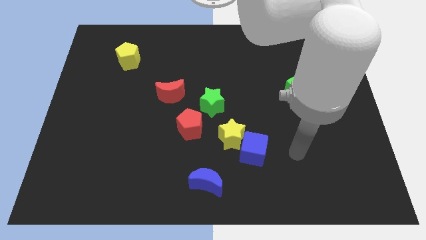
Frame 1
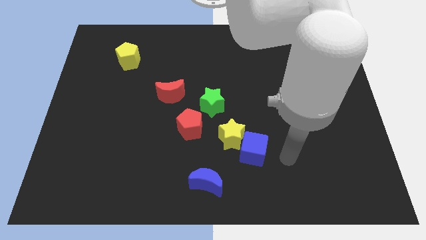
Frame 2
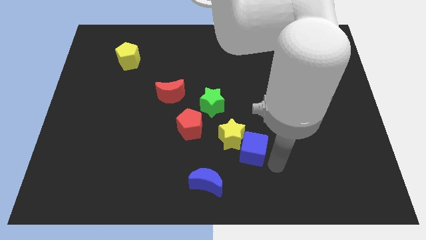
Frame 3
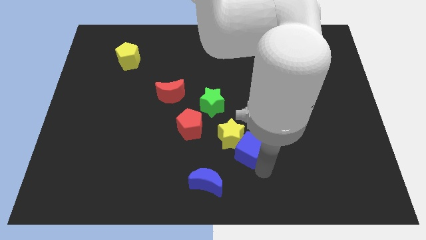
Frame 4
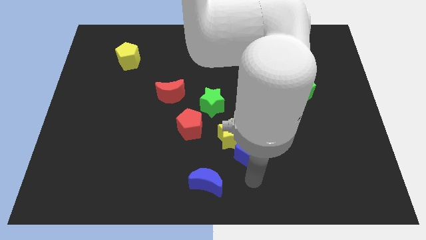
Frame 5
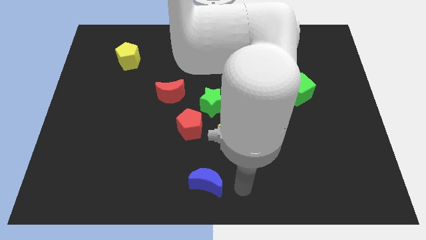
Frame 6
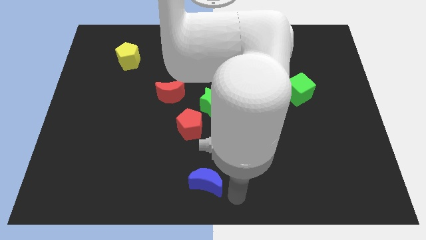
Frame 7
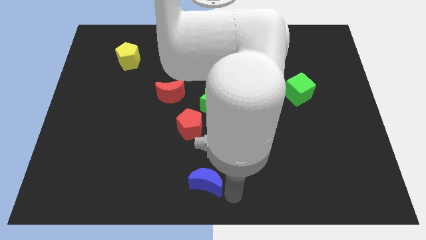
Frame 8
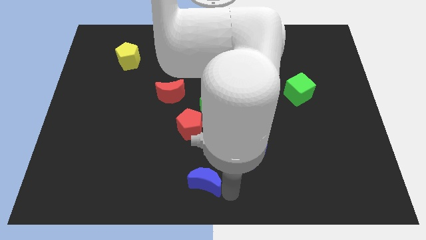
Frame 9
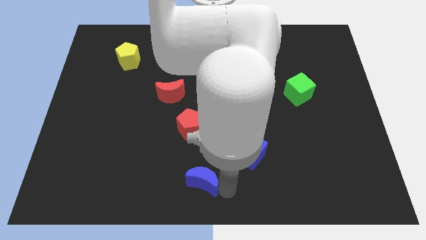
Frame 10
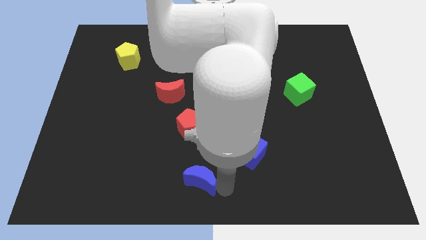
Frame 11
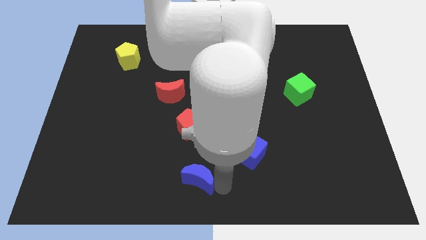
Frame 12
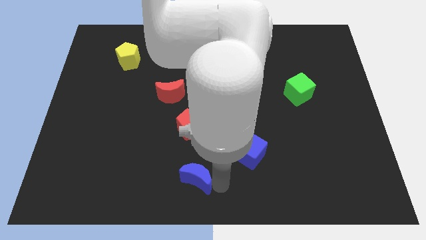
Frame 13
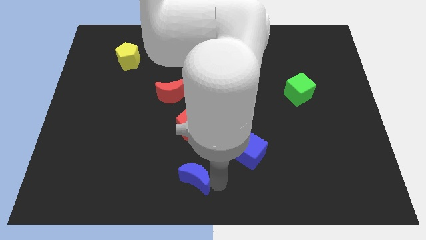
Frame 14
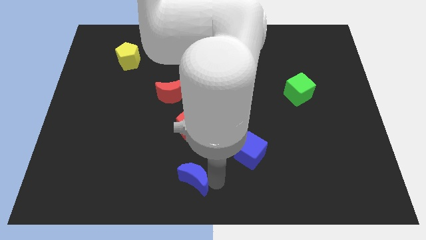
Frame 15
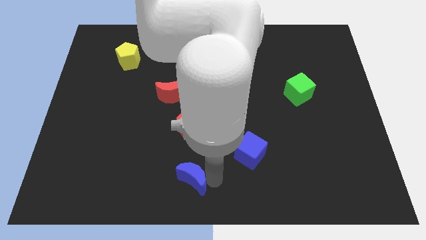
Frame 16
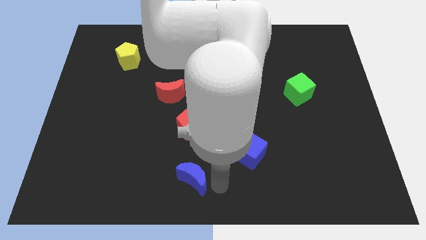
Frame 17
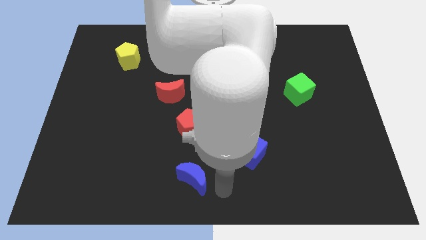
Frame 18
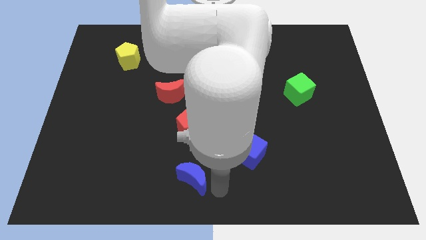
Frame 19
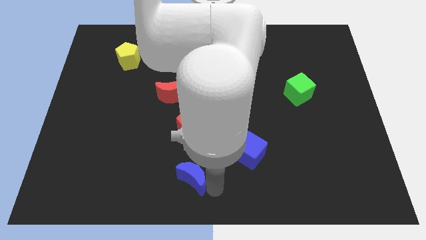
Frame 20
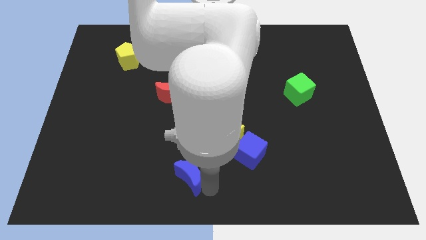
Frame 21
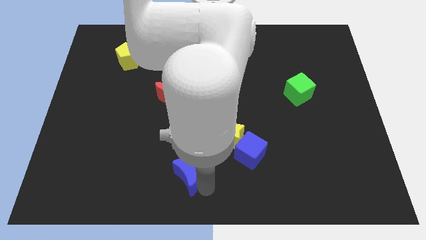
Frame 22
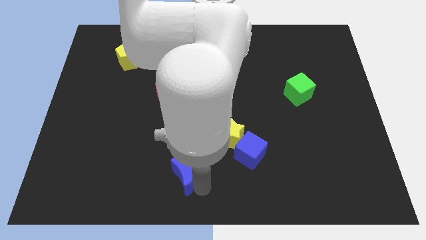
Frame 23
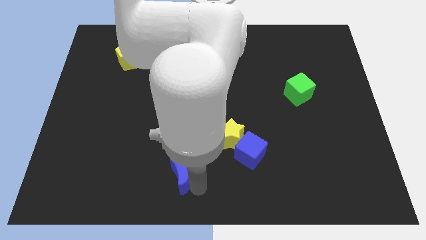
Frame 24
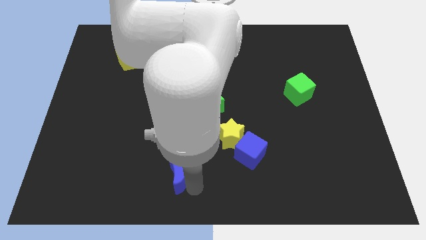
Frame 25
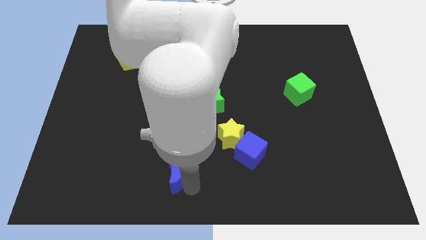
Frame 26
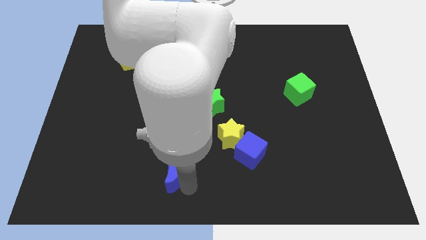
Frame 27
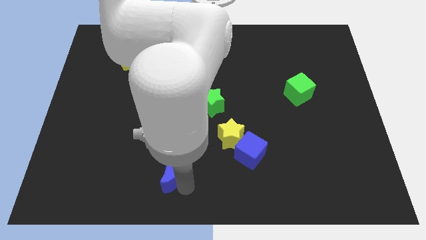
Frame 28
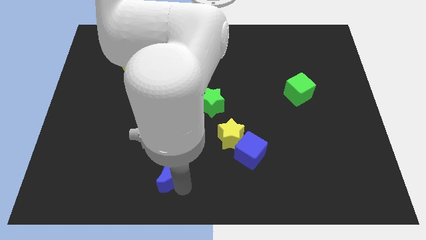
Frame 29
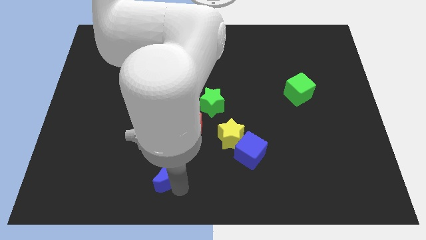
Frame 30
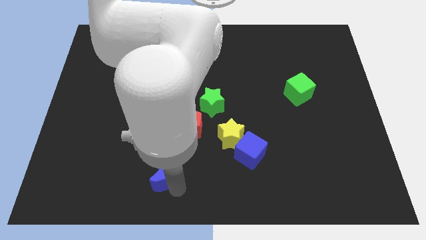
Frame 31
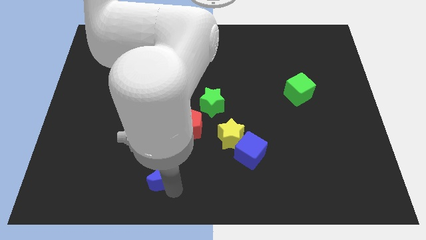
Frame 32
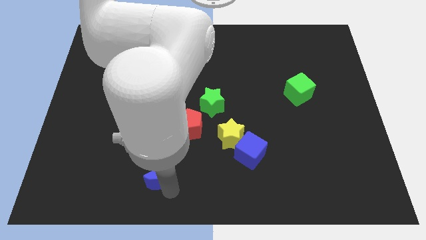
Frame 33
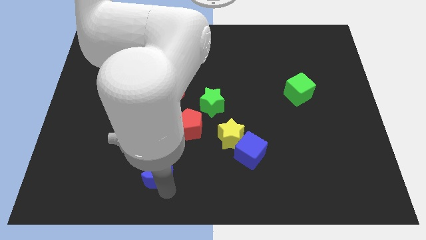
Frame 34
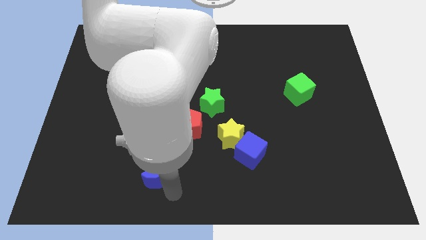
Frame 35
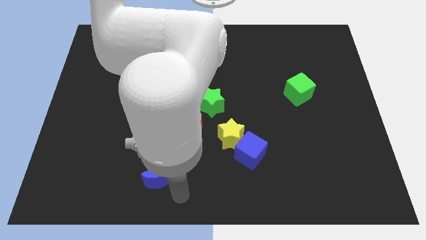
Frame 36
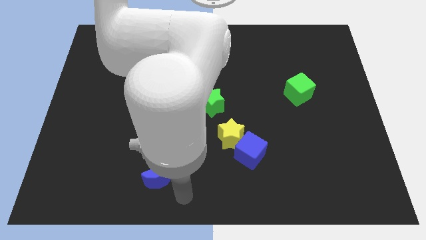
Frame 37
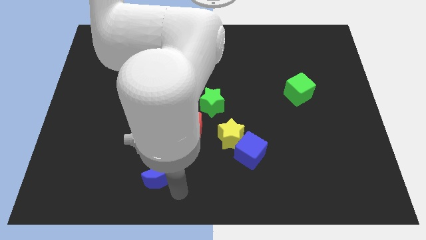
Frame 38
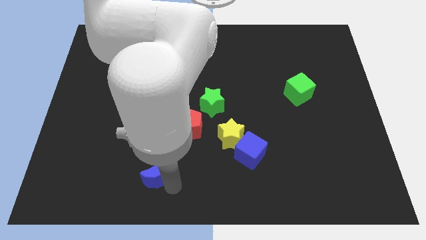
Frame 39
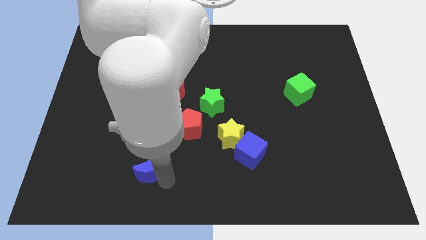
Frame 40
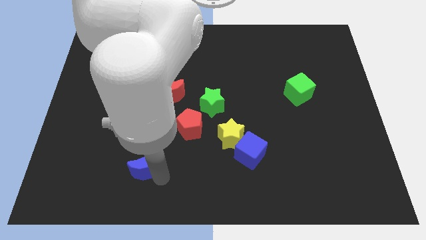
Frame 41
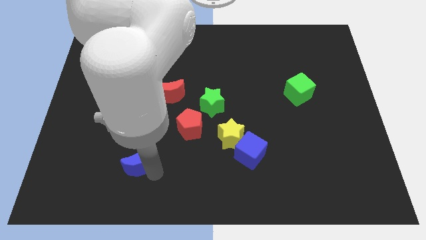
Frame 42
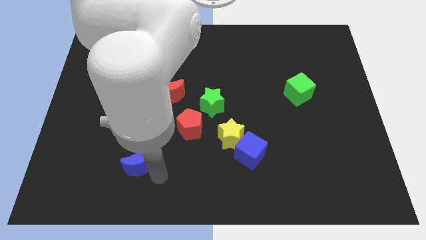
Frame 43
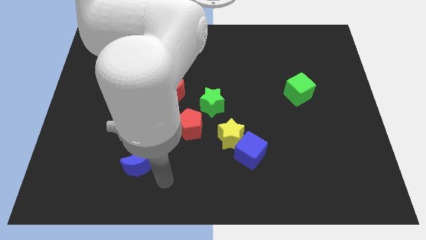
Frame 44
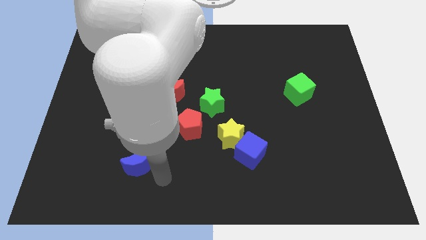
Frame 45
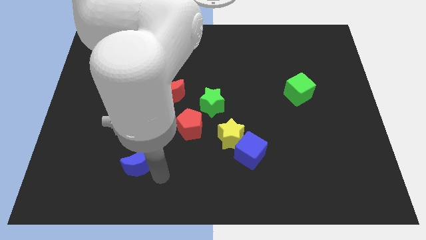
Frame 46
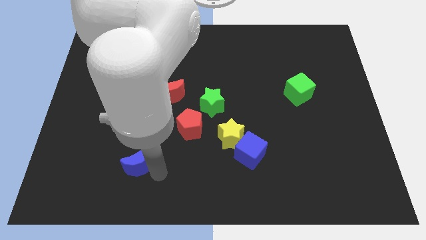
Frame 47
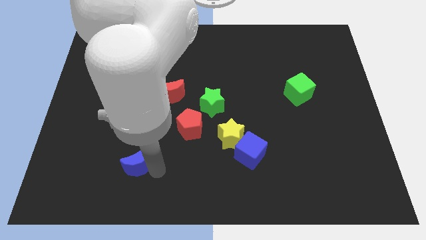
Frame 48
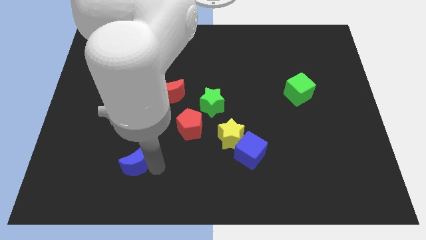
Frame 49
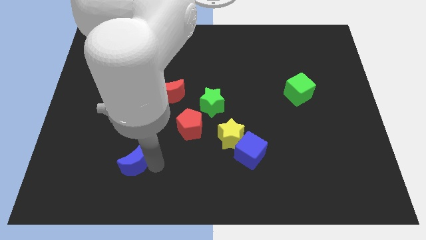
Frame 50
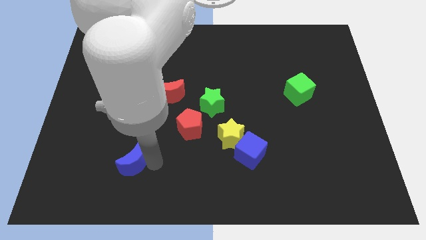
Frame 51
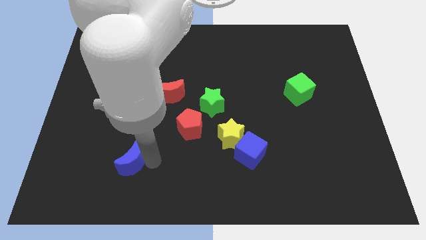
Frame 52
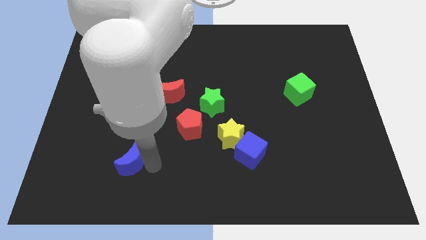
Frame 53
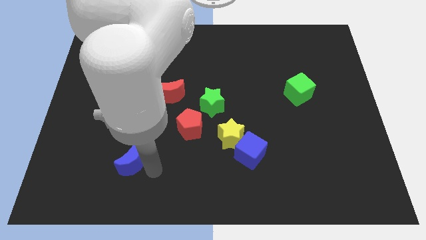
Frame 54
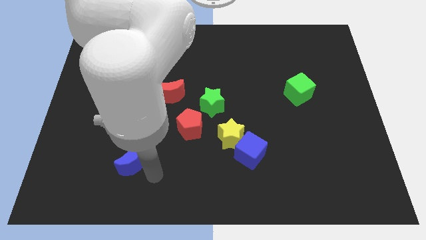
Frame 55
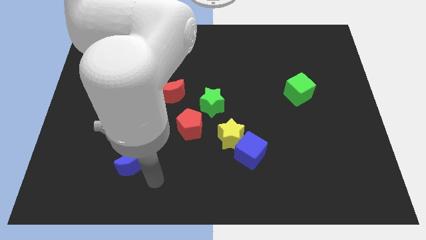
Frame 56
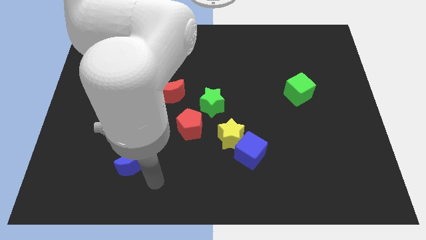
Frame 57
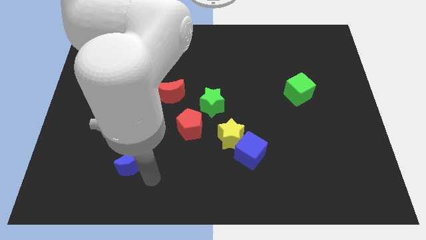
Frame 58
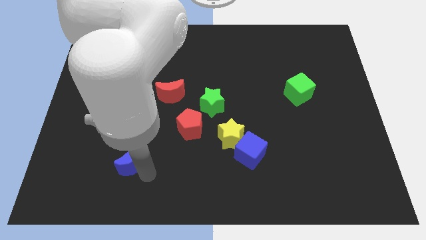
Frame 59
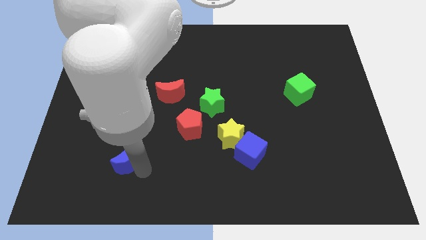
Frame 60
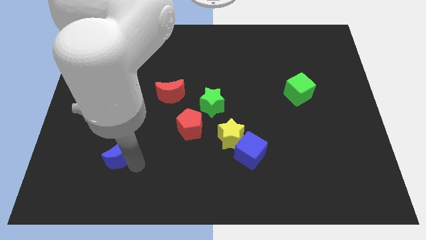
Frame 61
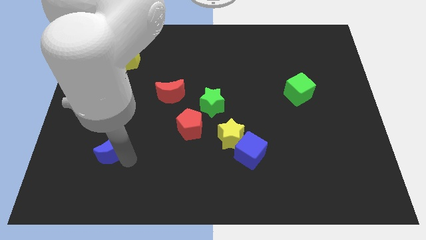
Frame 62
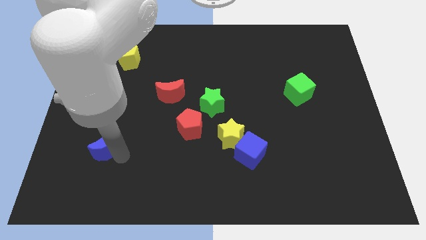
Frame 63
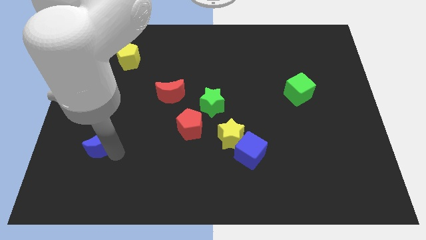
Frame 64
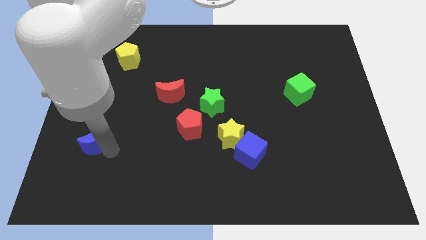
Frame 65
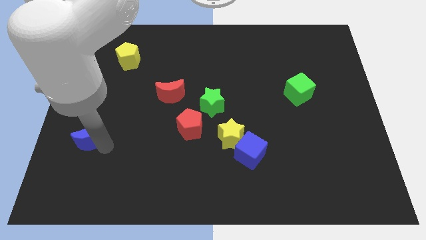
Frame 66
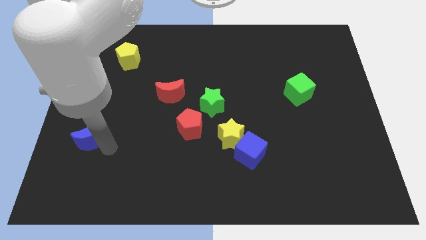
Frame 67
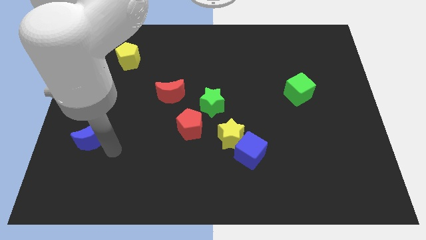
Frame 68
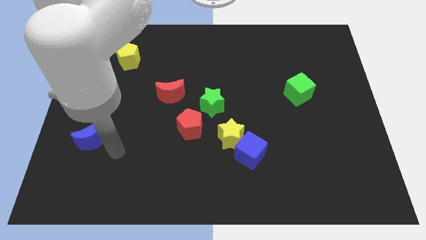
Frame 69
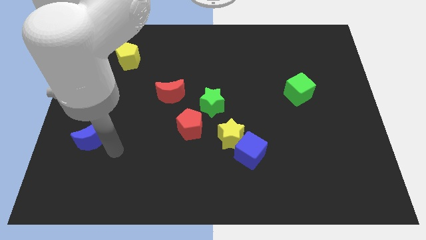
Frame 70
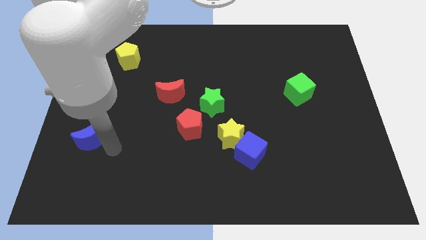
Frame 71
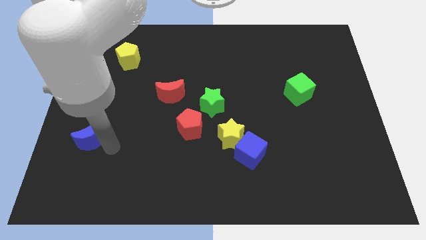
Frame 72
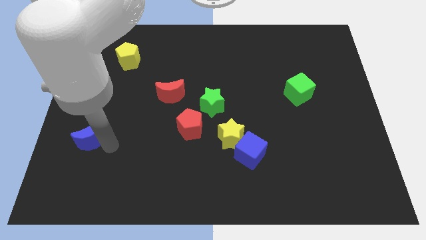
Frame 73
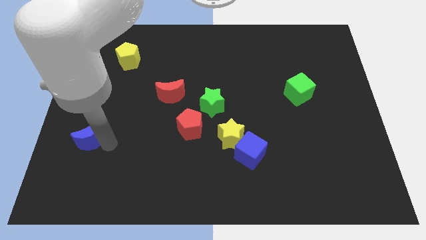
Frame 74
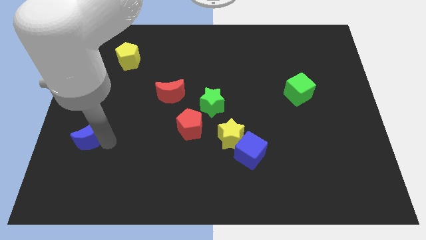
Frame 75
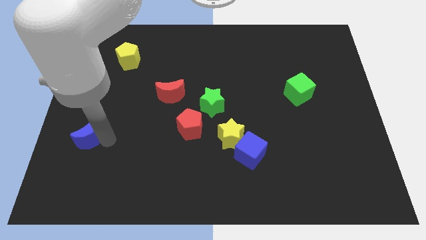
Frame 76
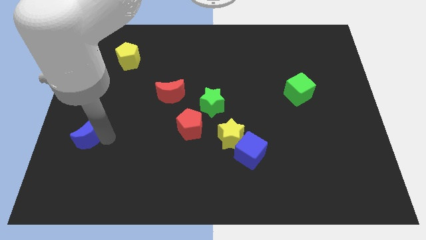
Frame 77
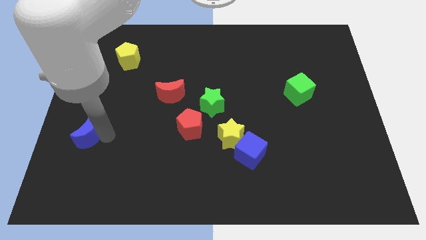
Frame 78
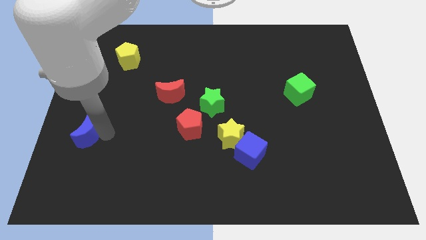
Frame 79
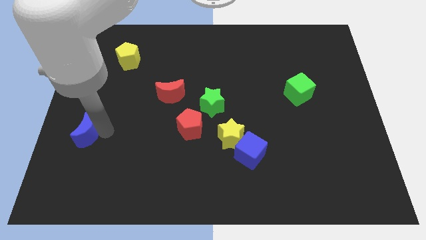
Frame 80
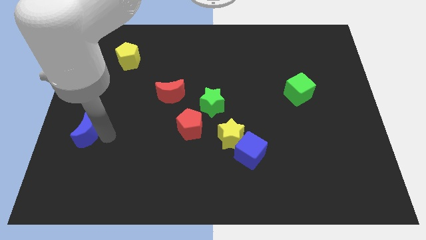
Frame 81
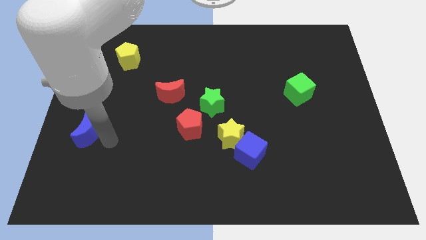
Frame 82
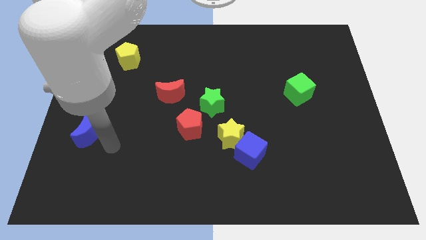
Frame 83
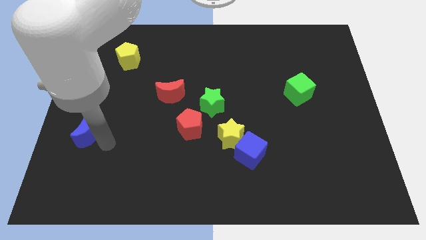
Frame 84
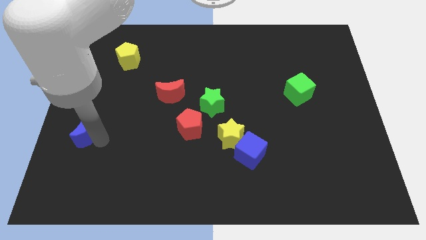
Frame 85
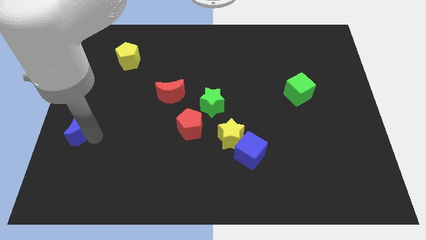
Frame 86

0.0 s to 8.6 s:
push the blue moon to the center left
